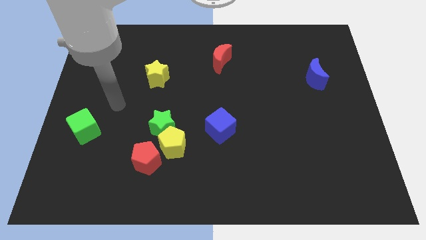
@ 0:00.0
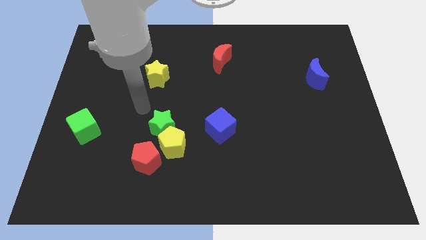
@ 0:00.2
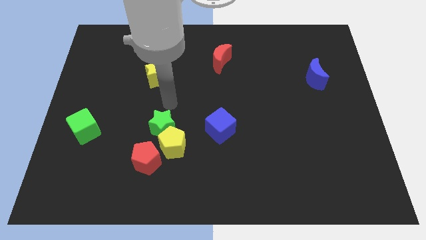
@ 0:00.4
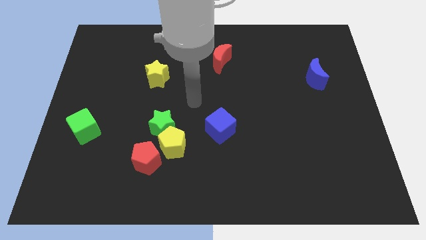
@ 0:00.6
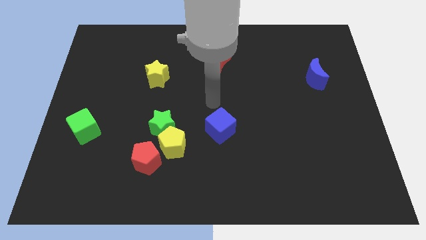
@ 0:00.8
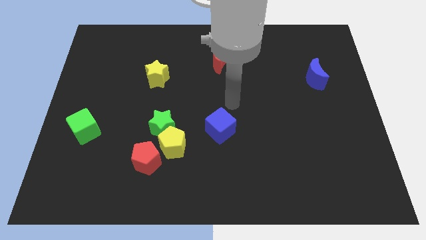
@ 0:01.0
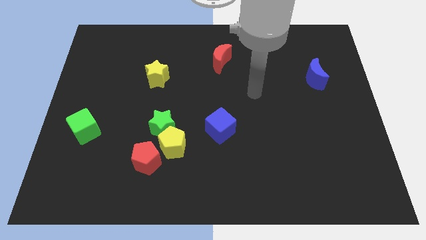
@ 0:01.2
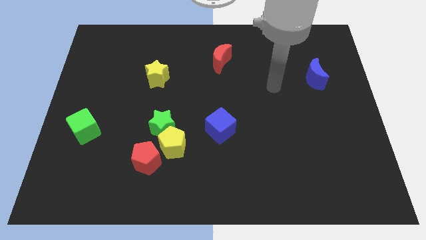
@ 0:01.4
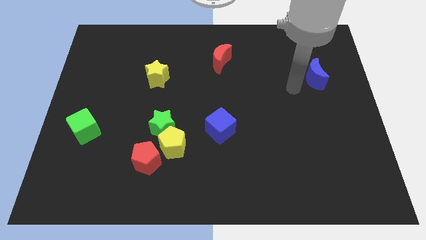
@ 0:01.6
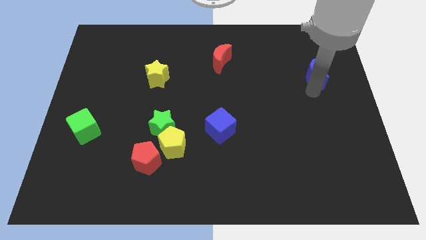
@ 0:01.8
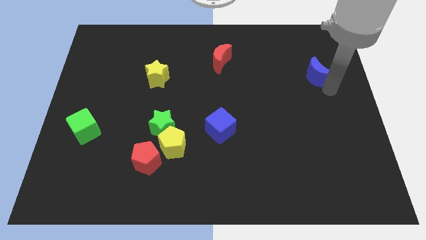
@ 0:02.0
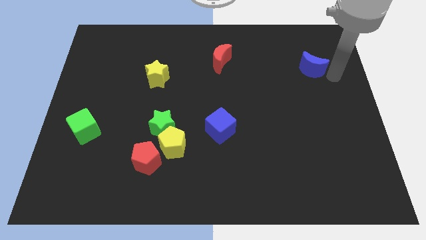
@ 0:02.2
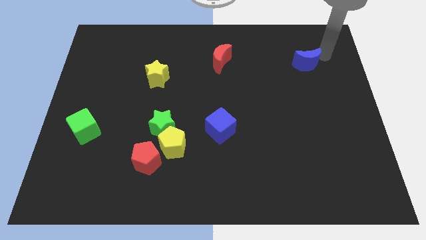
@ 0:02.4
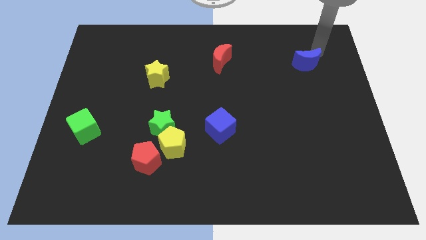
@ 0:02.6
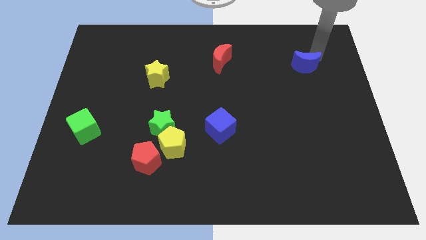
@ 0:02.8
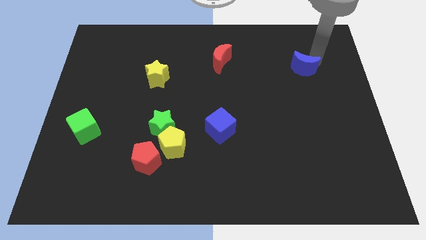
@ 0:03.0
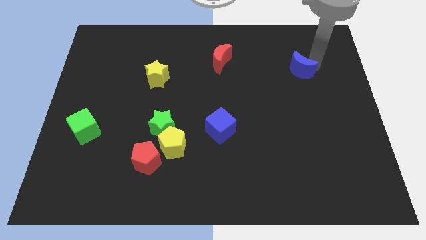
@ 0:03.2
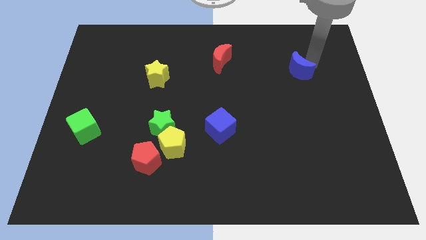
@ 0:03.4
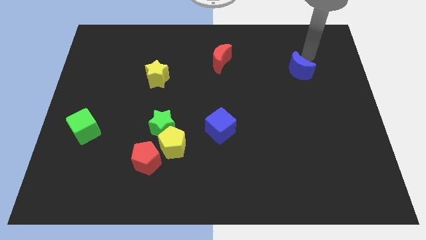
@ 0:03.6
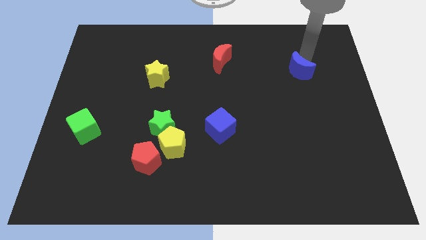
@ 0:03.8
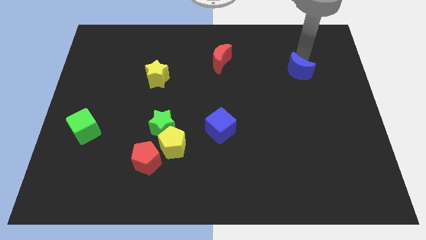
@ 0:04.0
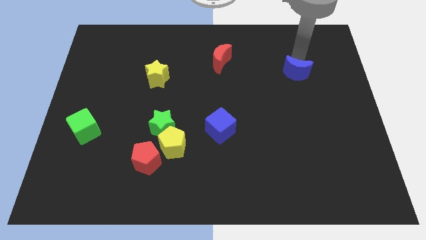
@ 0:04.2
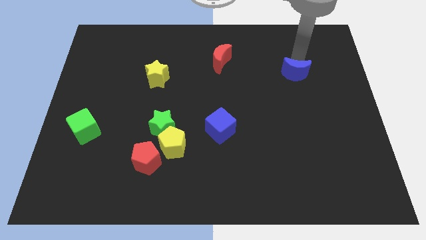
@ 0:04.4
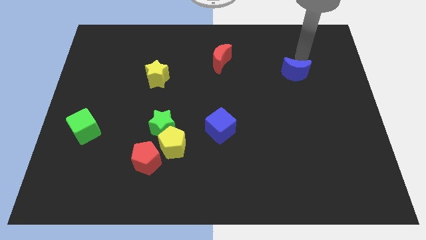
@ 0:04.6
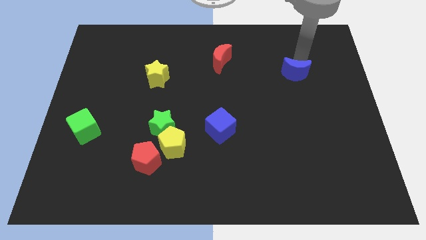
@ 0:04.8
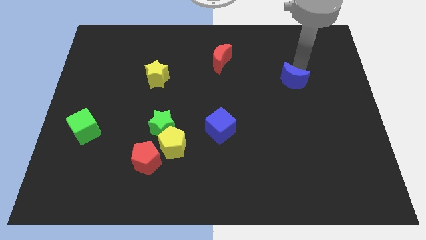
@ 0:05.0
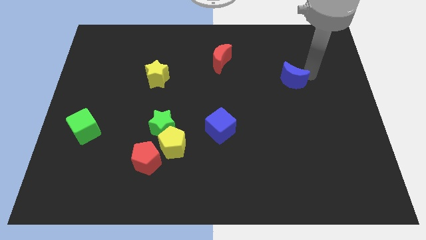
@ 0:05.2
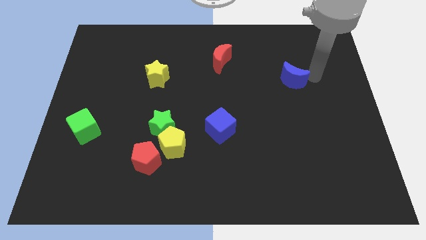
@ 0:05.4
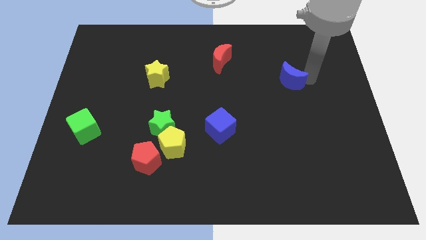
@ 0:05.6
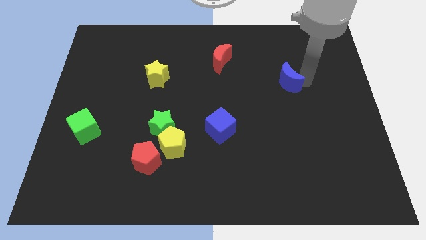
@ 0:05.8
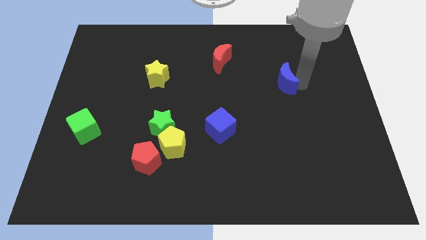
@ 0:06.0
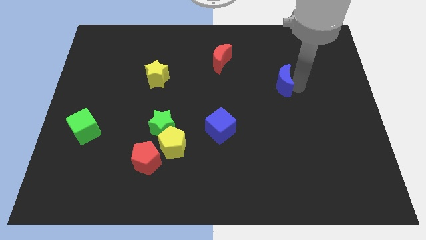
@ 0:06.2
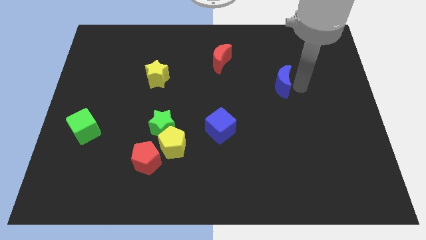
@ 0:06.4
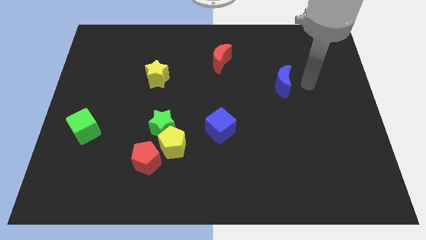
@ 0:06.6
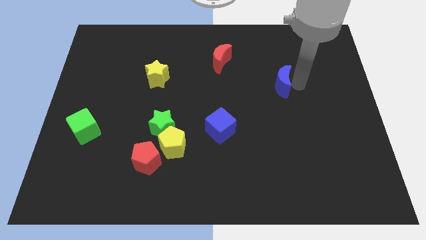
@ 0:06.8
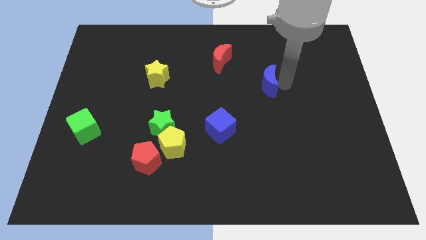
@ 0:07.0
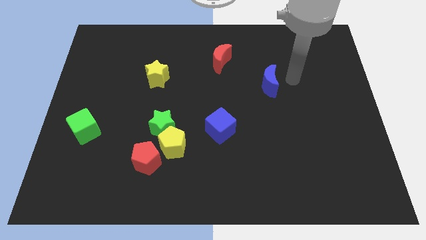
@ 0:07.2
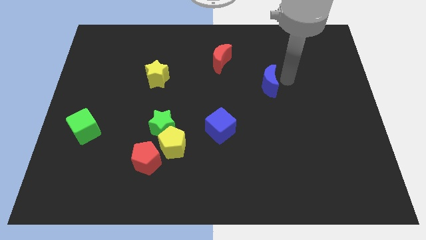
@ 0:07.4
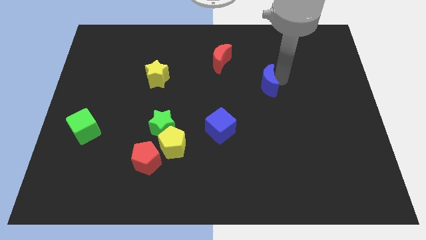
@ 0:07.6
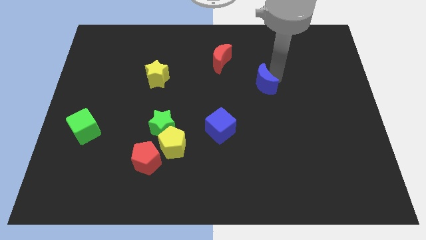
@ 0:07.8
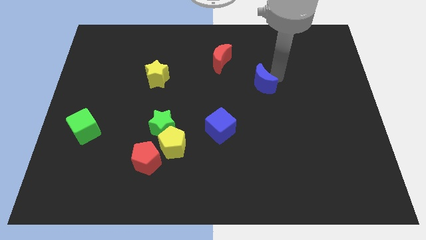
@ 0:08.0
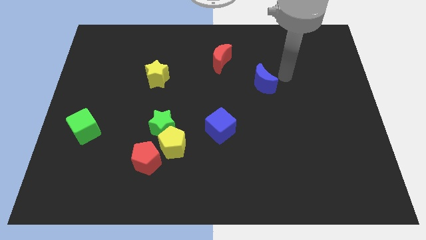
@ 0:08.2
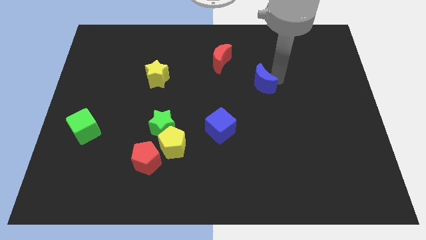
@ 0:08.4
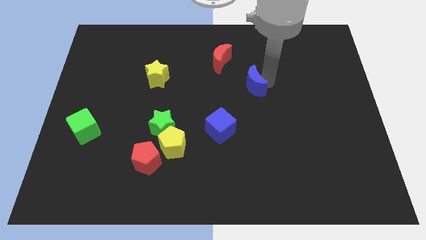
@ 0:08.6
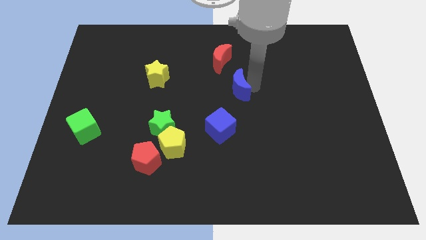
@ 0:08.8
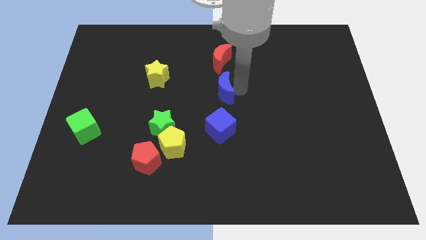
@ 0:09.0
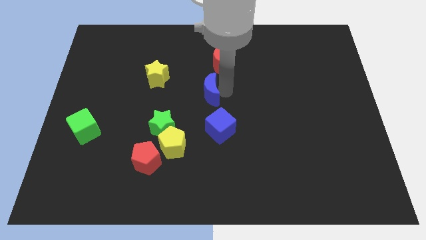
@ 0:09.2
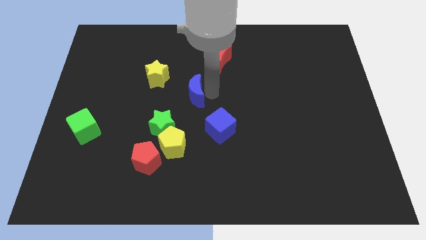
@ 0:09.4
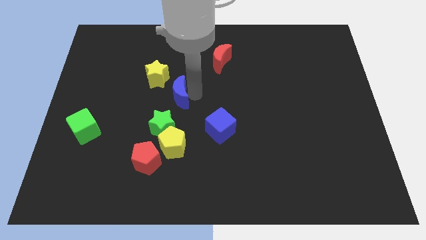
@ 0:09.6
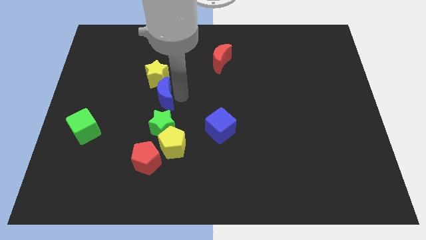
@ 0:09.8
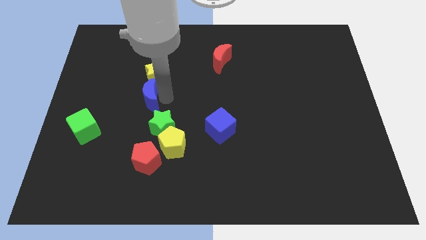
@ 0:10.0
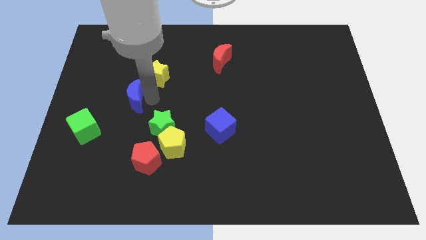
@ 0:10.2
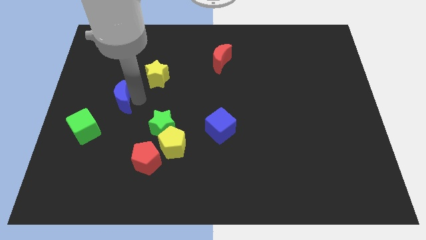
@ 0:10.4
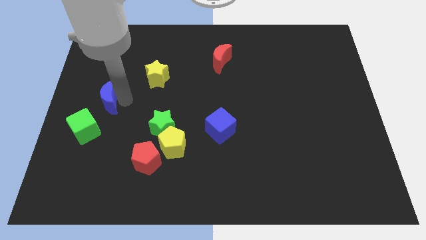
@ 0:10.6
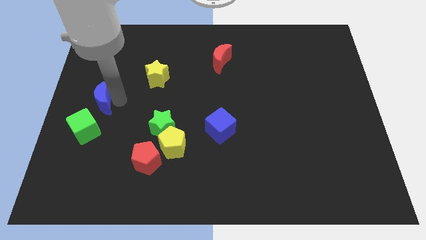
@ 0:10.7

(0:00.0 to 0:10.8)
push the blue moon to the center left

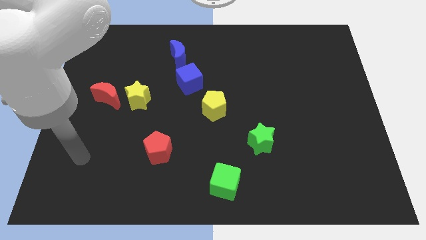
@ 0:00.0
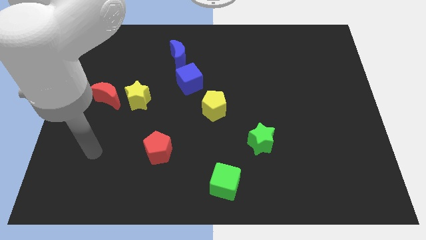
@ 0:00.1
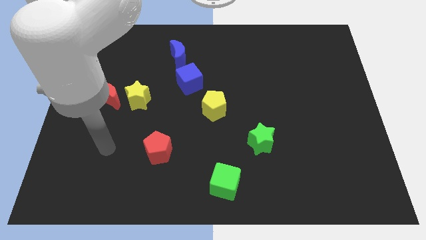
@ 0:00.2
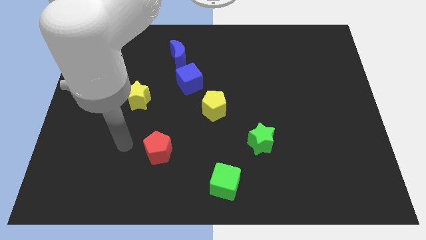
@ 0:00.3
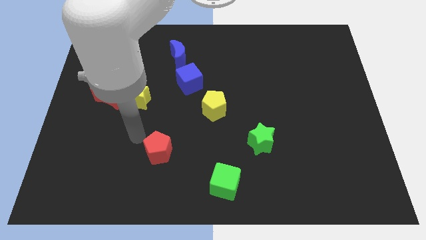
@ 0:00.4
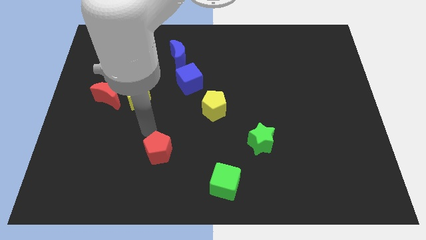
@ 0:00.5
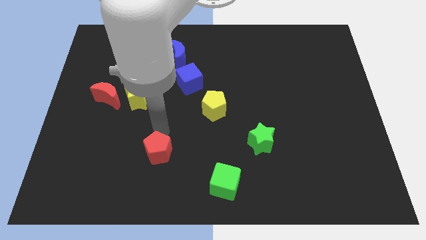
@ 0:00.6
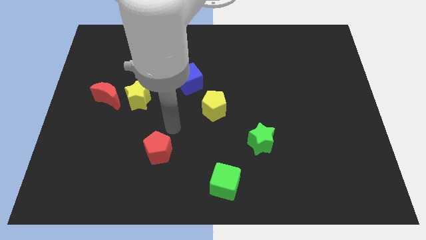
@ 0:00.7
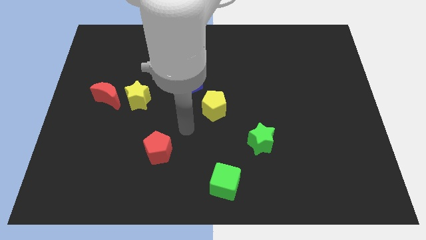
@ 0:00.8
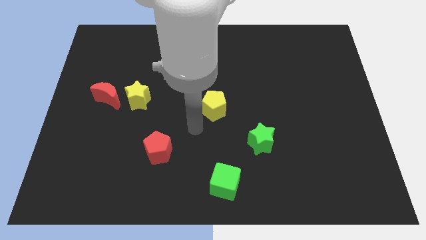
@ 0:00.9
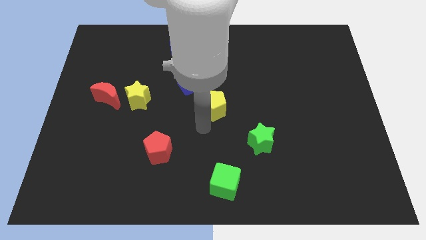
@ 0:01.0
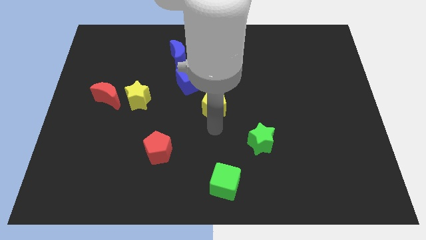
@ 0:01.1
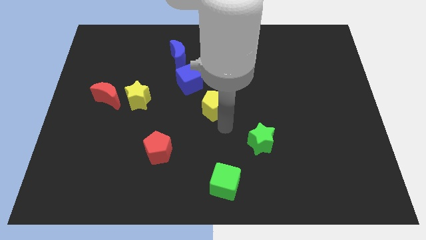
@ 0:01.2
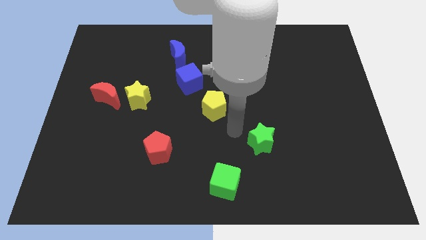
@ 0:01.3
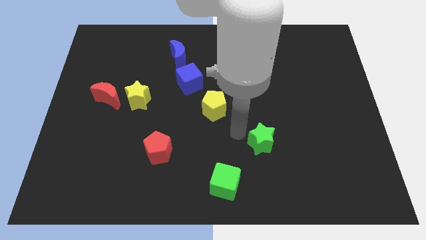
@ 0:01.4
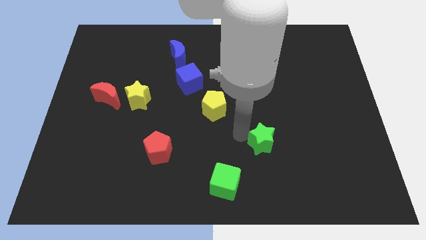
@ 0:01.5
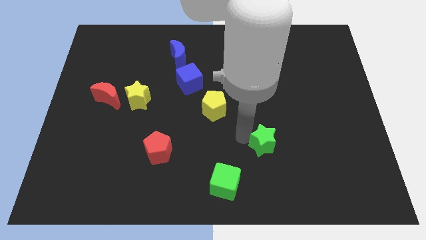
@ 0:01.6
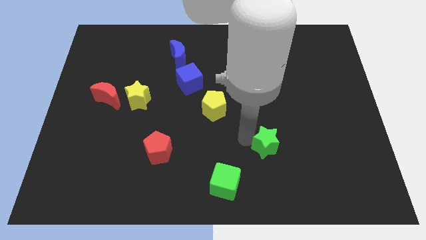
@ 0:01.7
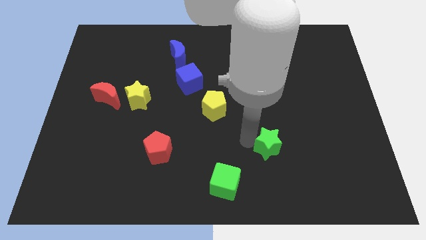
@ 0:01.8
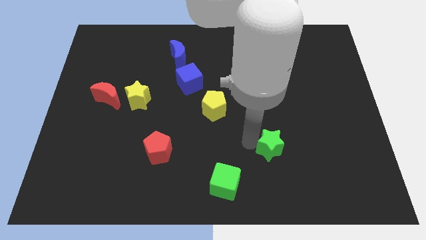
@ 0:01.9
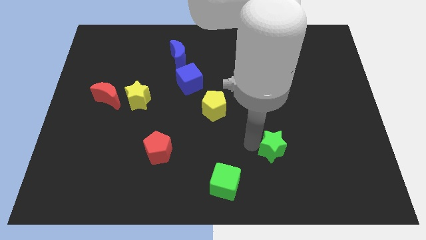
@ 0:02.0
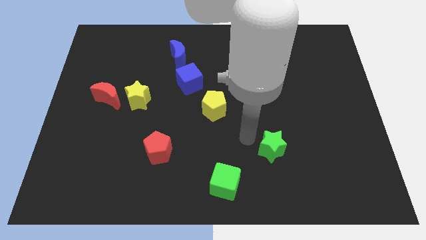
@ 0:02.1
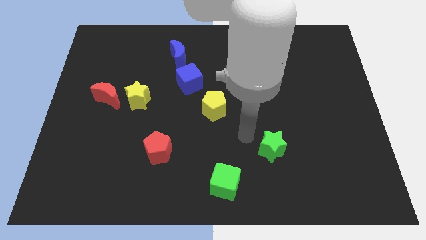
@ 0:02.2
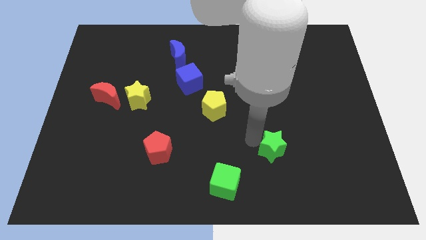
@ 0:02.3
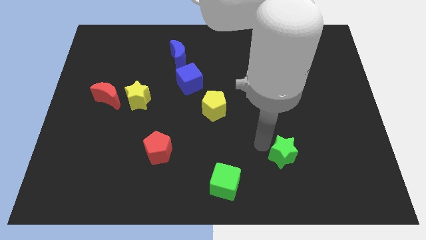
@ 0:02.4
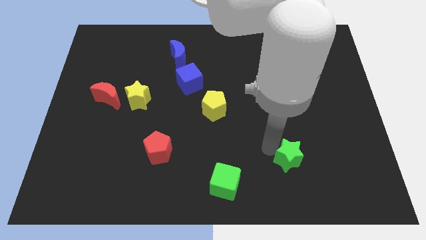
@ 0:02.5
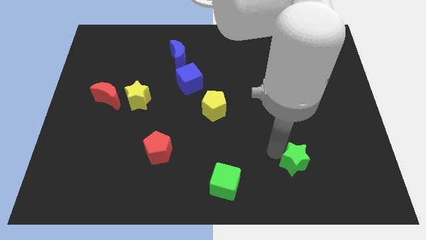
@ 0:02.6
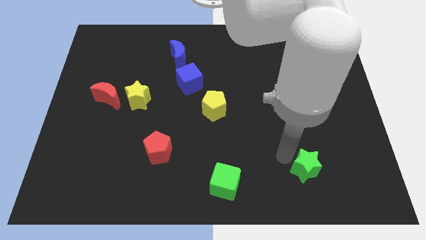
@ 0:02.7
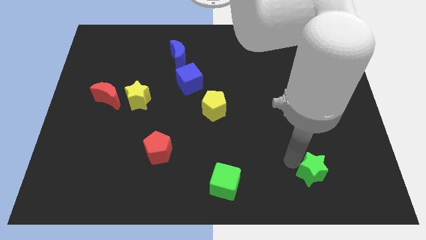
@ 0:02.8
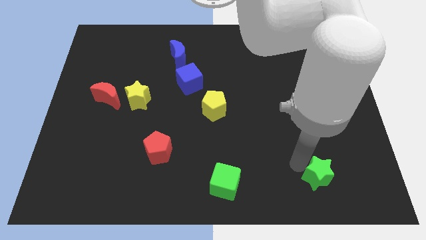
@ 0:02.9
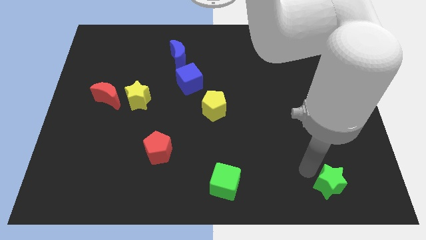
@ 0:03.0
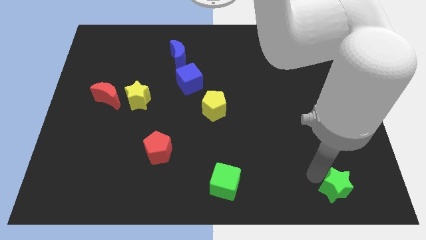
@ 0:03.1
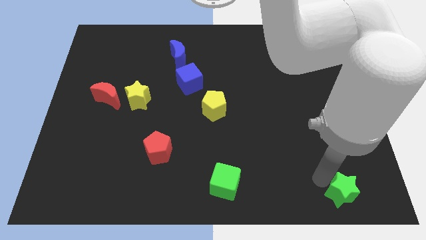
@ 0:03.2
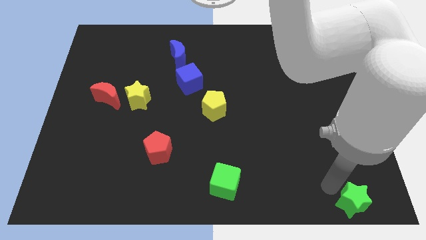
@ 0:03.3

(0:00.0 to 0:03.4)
slide the green star to the bottom right of the board
